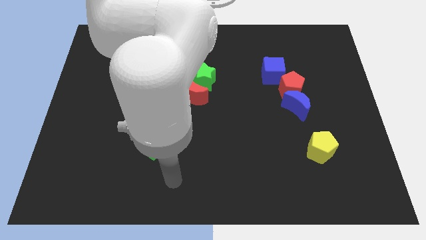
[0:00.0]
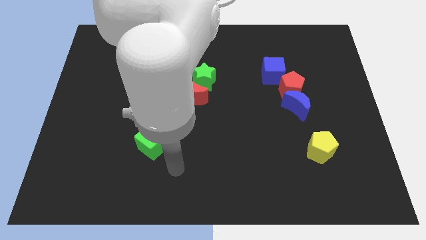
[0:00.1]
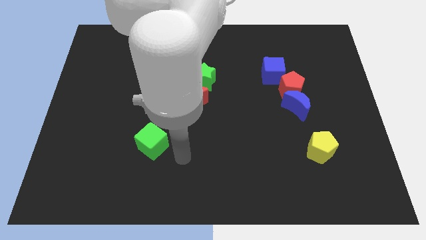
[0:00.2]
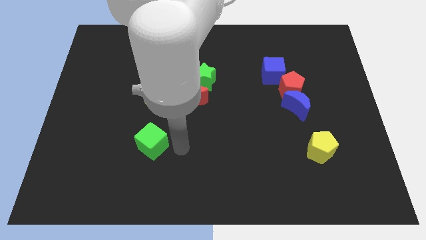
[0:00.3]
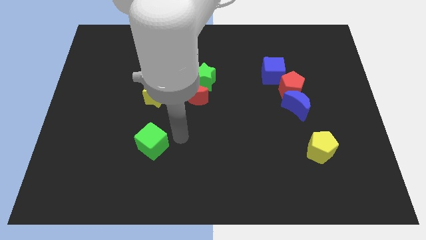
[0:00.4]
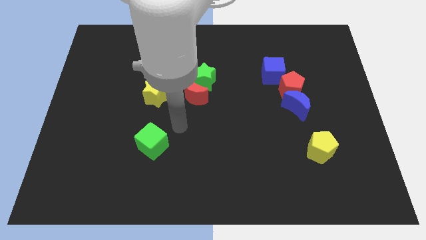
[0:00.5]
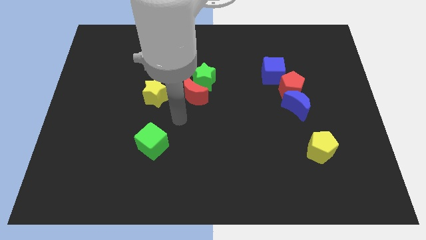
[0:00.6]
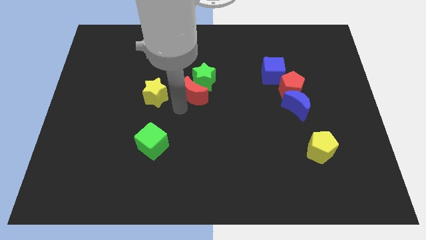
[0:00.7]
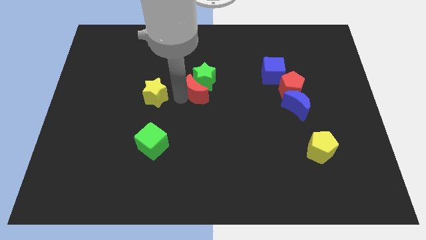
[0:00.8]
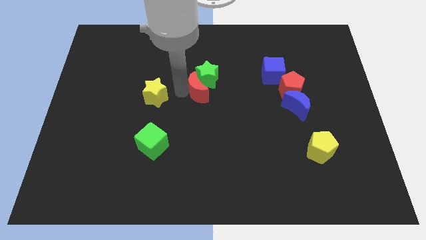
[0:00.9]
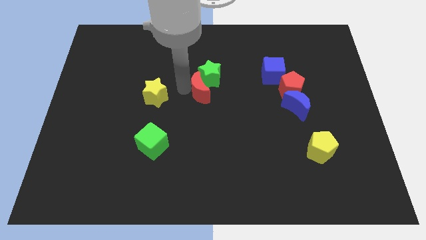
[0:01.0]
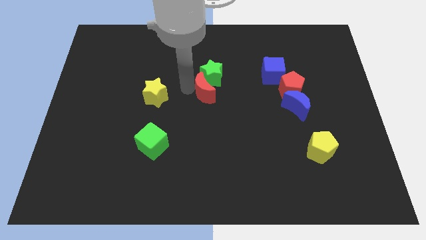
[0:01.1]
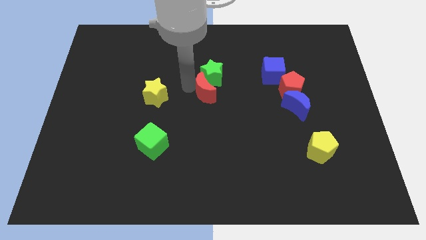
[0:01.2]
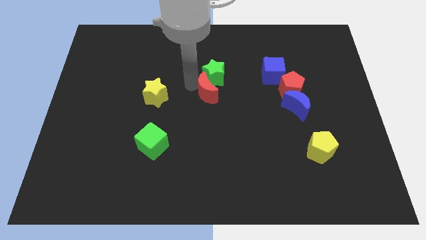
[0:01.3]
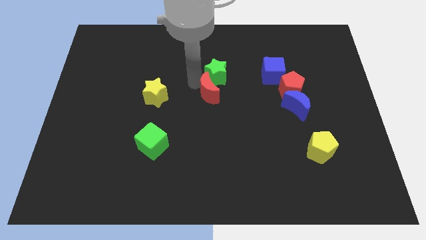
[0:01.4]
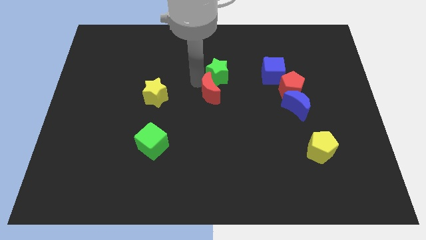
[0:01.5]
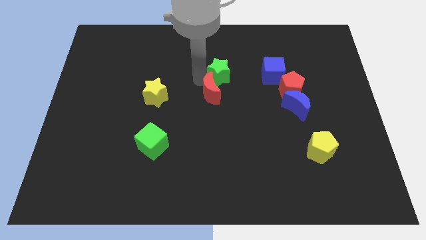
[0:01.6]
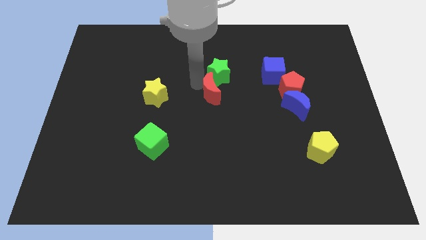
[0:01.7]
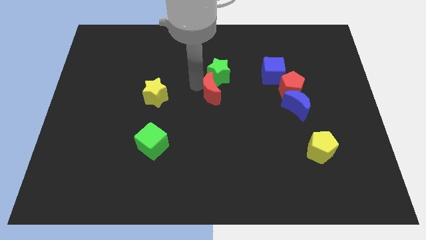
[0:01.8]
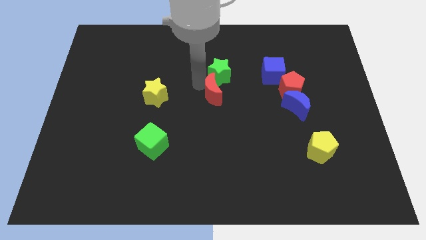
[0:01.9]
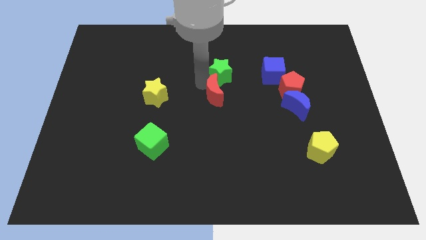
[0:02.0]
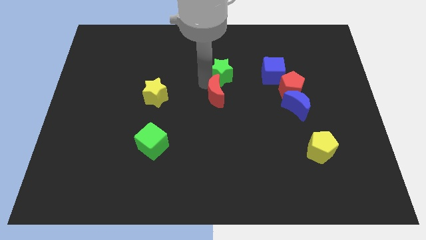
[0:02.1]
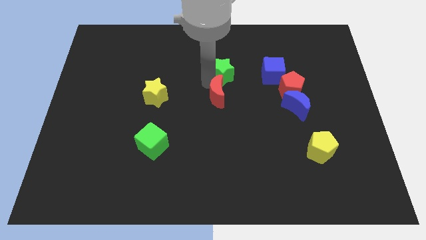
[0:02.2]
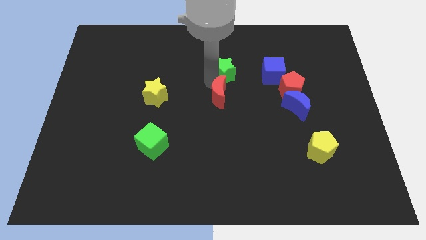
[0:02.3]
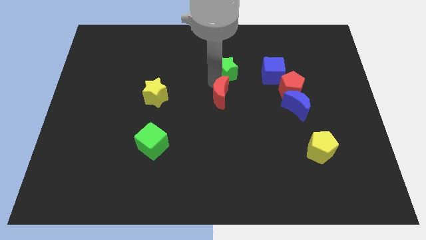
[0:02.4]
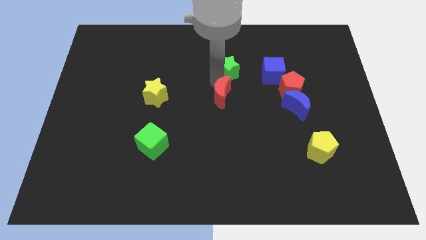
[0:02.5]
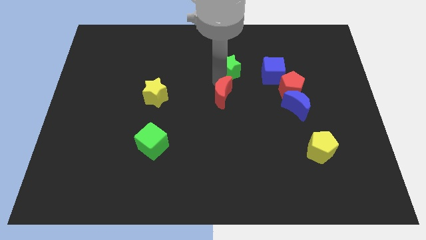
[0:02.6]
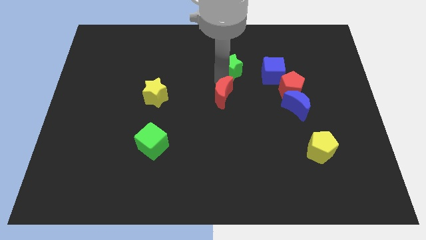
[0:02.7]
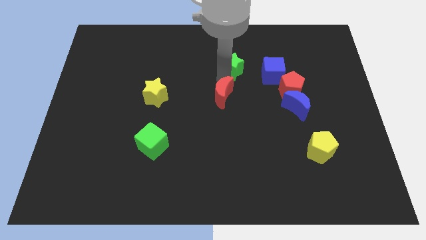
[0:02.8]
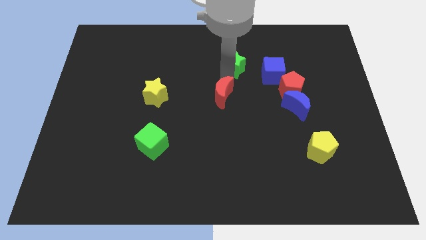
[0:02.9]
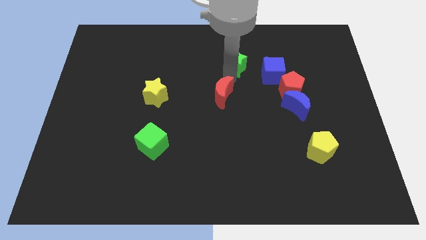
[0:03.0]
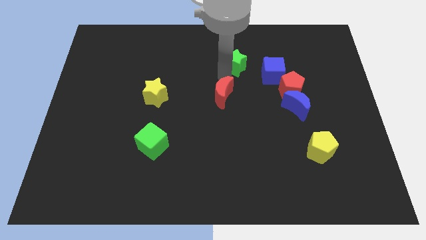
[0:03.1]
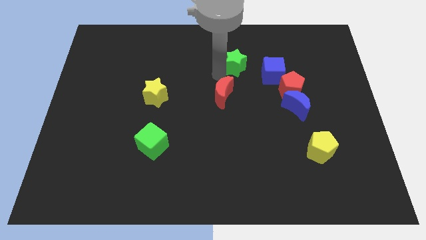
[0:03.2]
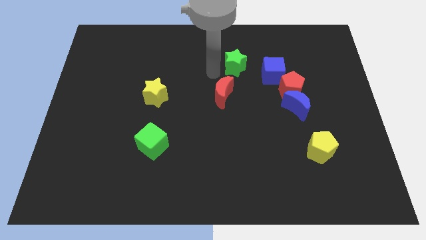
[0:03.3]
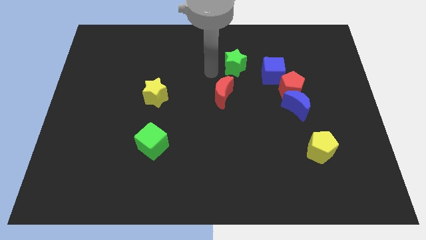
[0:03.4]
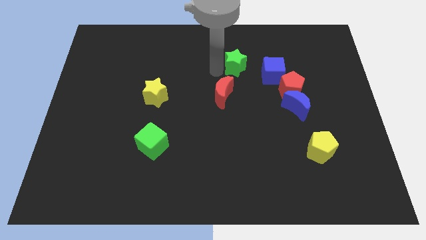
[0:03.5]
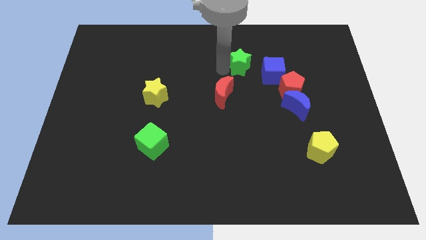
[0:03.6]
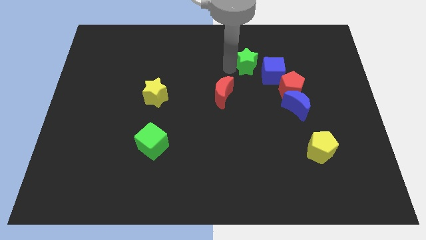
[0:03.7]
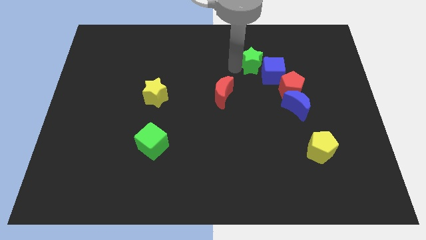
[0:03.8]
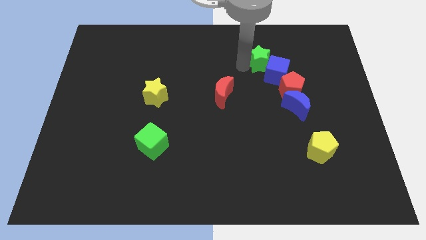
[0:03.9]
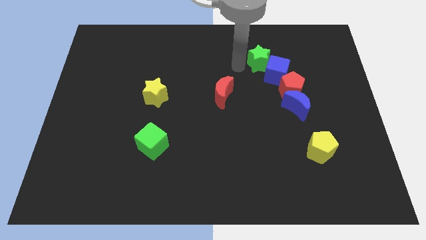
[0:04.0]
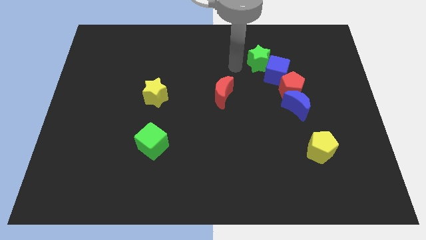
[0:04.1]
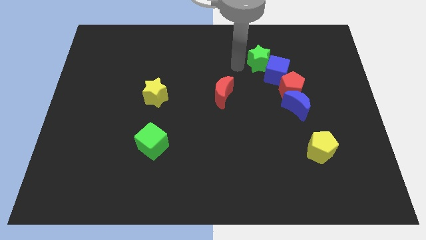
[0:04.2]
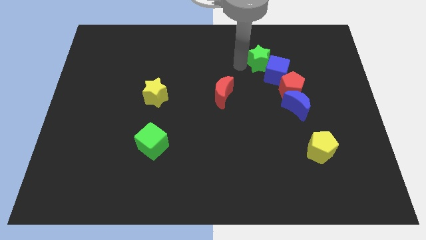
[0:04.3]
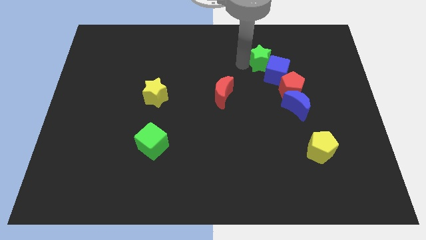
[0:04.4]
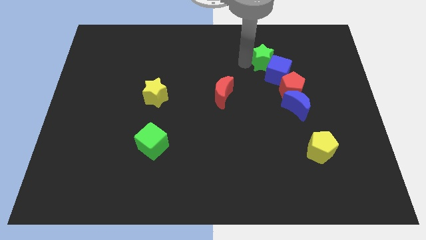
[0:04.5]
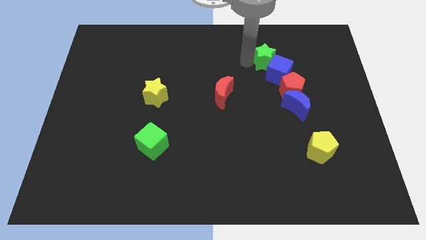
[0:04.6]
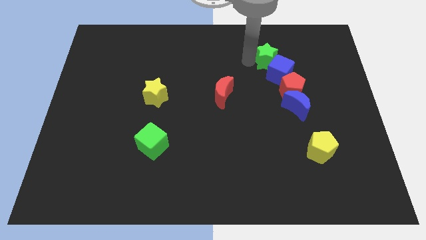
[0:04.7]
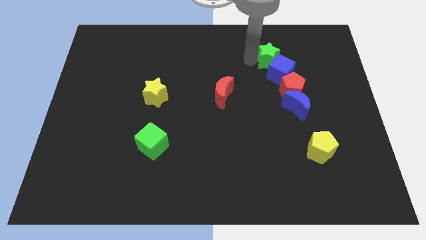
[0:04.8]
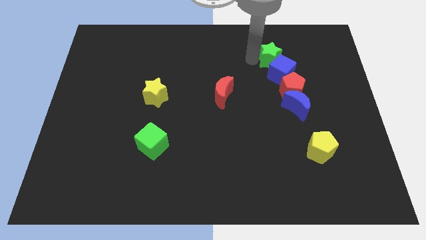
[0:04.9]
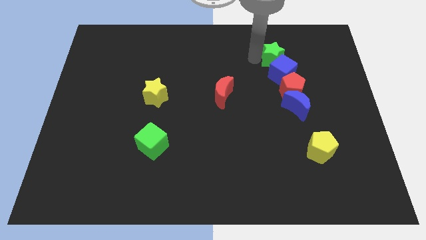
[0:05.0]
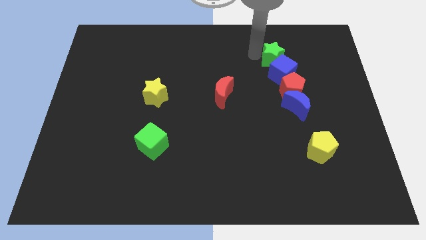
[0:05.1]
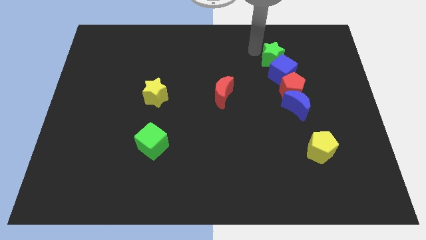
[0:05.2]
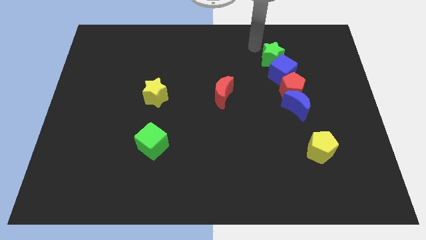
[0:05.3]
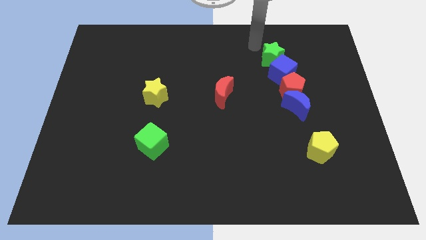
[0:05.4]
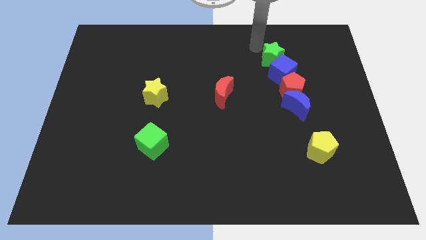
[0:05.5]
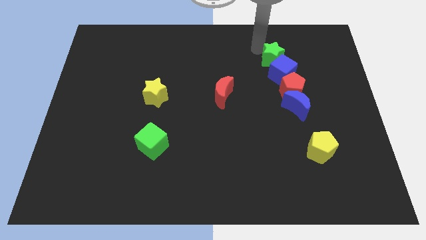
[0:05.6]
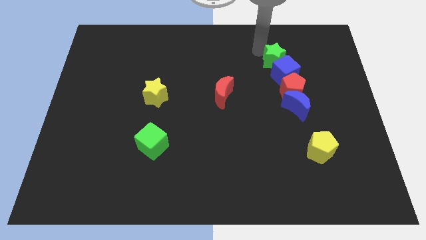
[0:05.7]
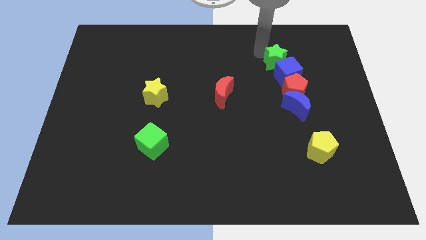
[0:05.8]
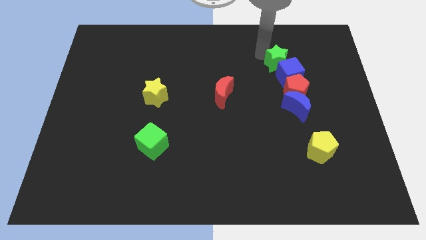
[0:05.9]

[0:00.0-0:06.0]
slide the green star above the blue moon

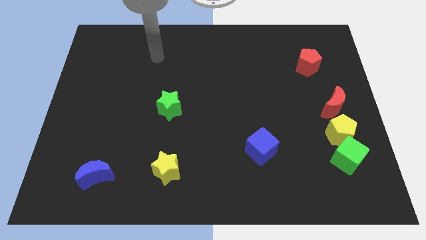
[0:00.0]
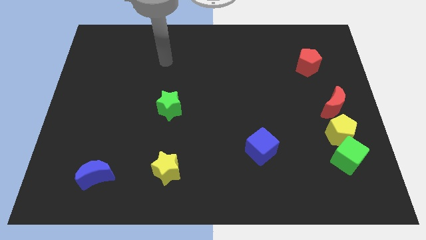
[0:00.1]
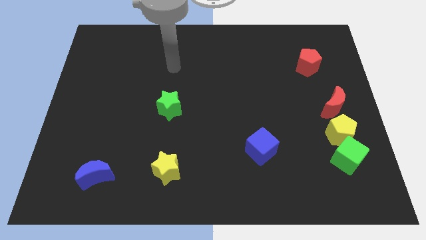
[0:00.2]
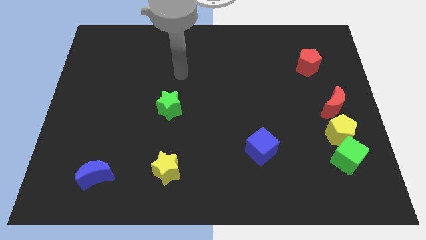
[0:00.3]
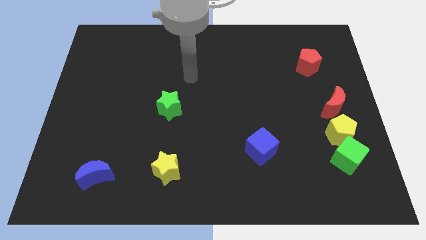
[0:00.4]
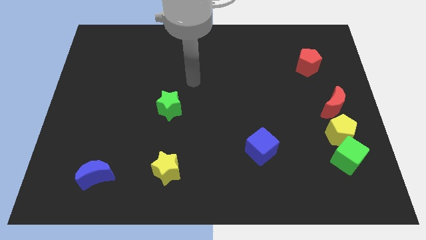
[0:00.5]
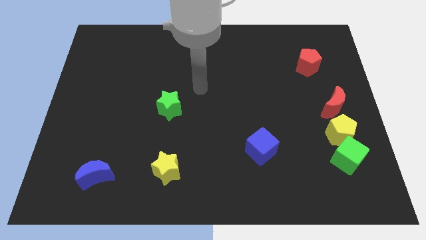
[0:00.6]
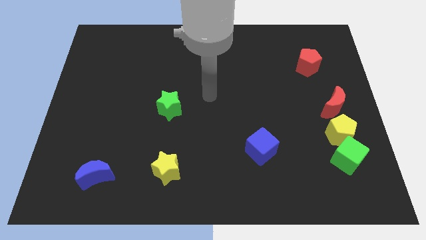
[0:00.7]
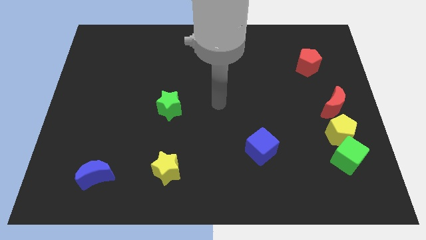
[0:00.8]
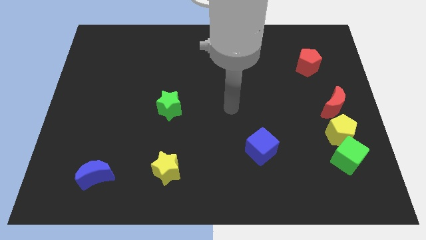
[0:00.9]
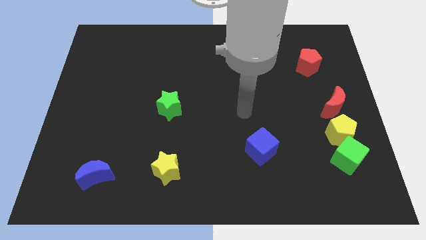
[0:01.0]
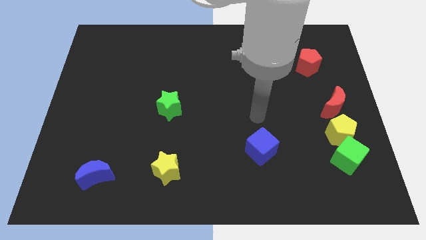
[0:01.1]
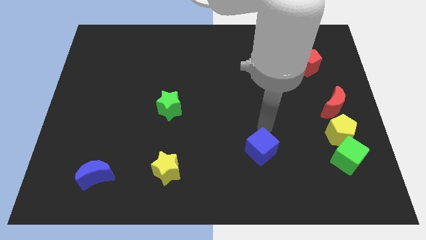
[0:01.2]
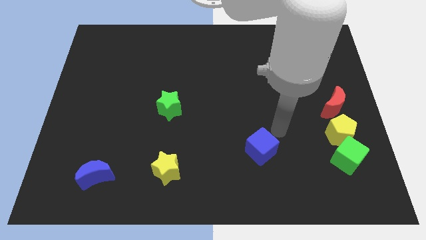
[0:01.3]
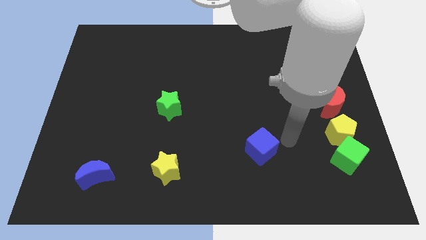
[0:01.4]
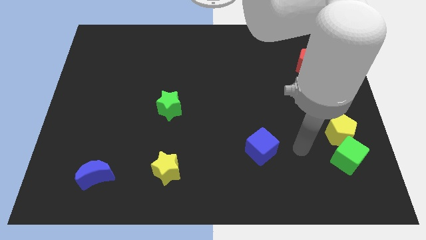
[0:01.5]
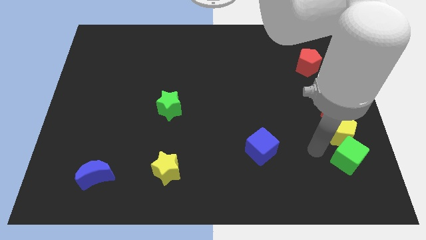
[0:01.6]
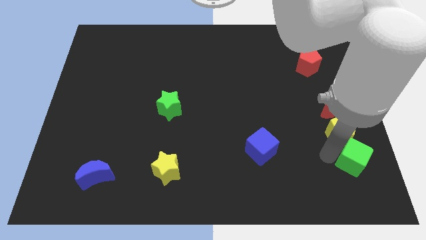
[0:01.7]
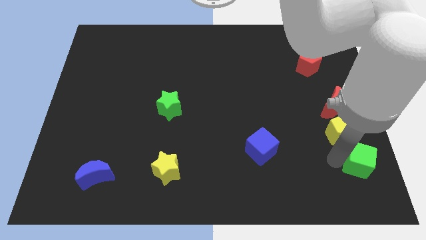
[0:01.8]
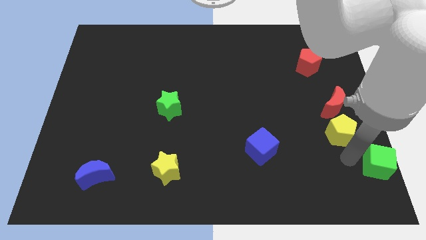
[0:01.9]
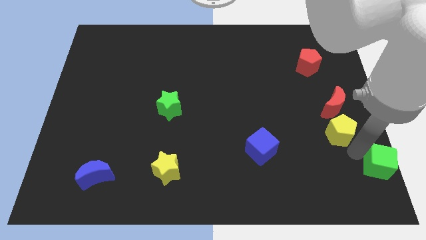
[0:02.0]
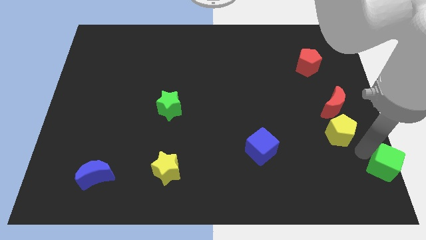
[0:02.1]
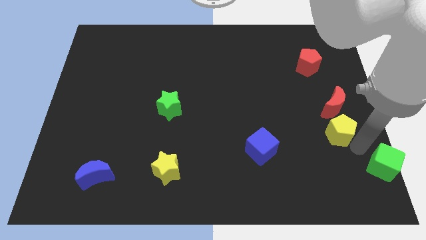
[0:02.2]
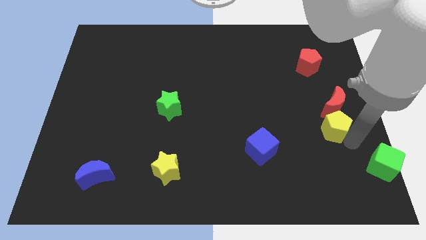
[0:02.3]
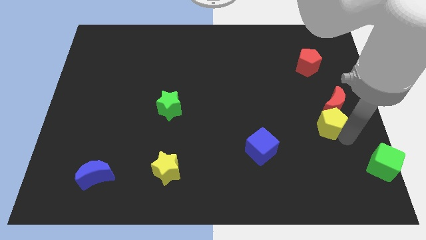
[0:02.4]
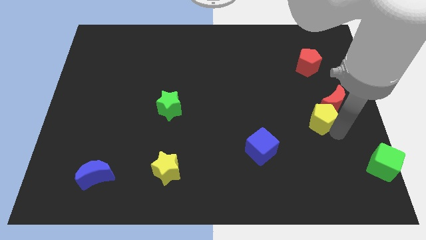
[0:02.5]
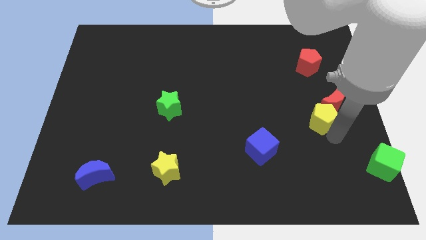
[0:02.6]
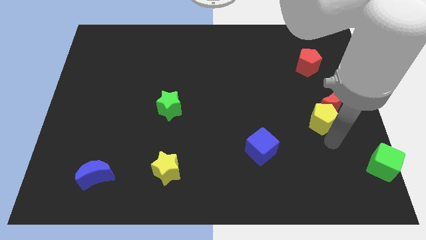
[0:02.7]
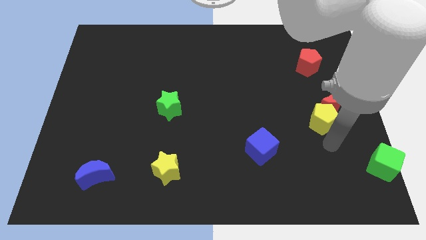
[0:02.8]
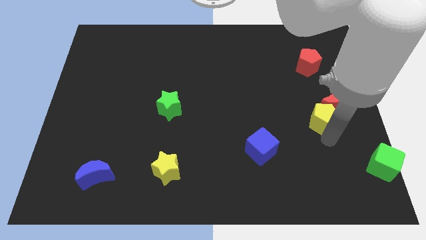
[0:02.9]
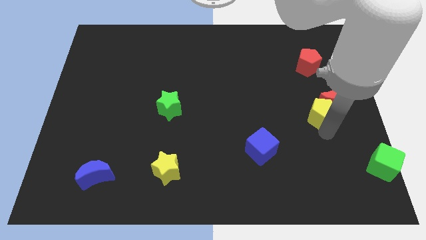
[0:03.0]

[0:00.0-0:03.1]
push the yellow pentagon below the red pentagon
